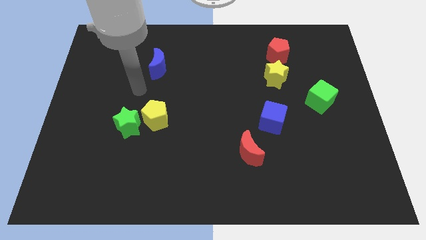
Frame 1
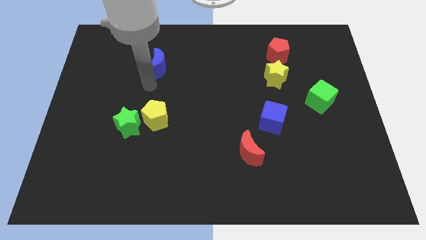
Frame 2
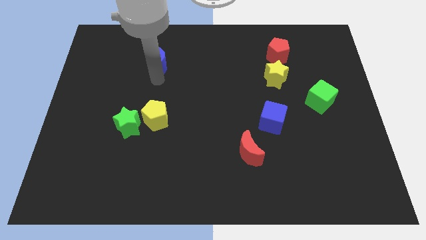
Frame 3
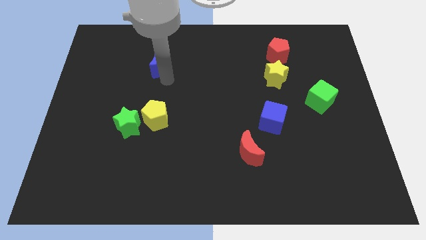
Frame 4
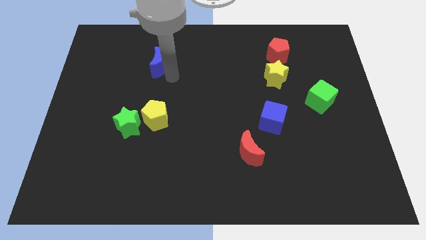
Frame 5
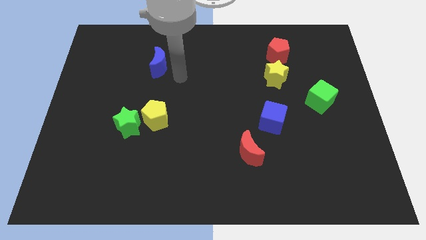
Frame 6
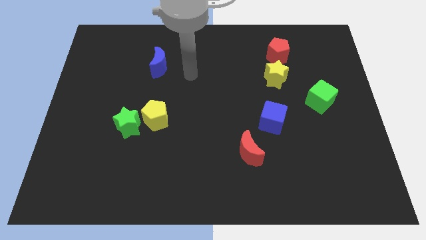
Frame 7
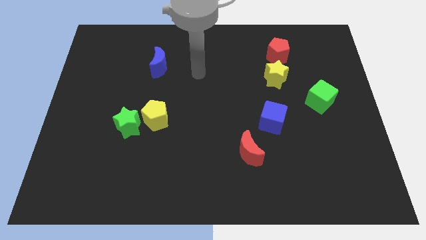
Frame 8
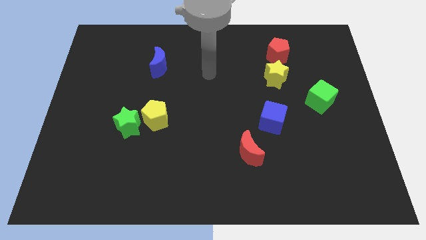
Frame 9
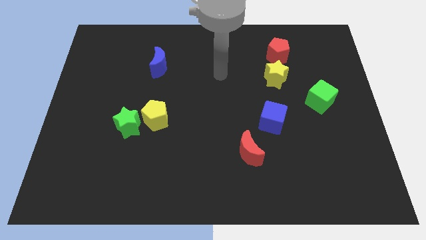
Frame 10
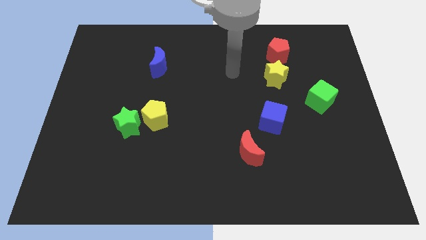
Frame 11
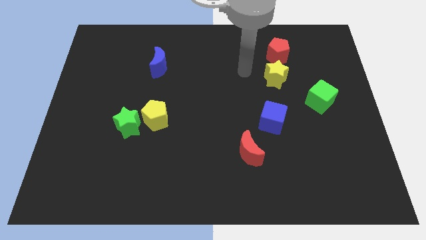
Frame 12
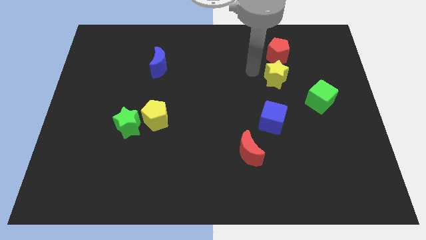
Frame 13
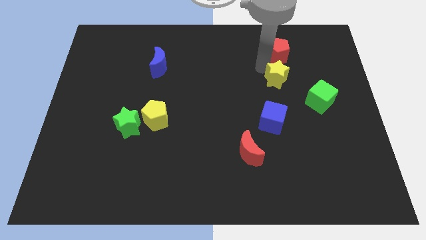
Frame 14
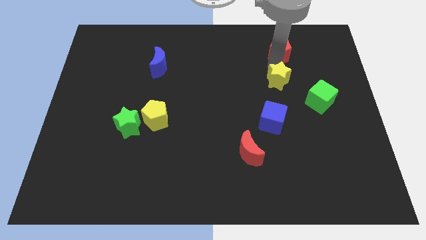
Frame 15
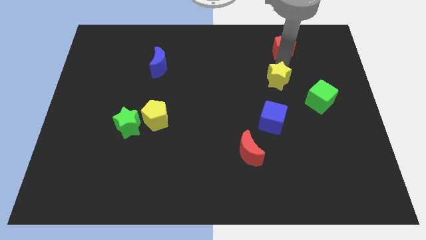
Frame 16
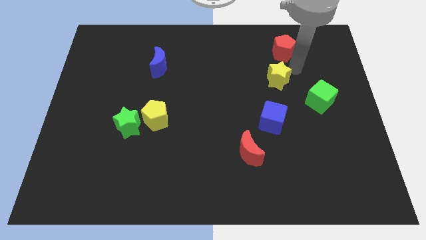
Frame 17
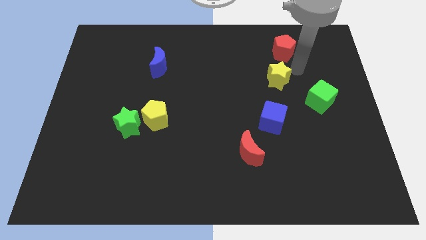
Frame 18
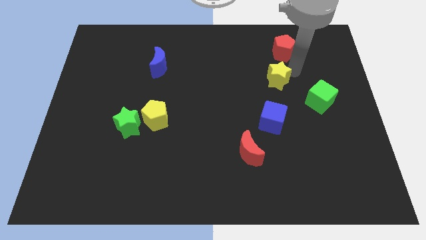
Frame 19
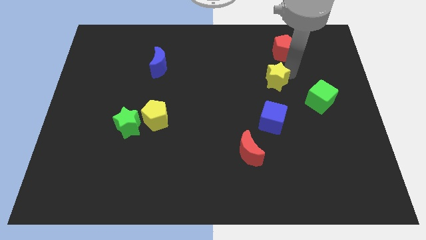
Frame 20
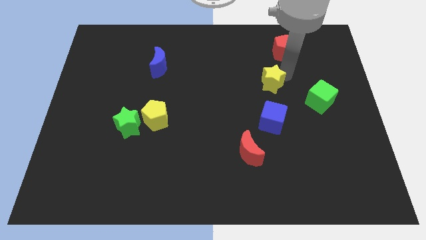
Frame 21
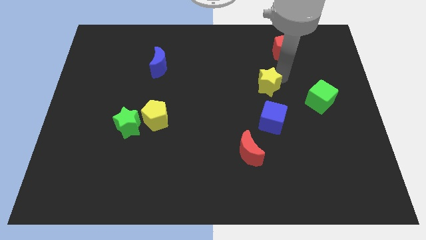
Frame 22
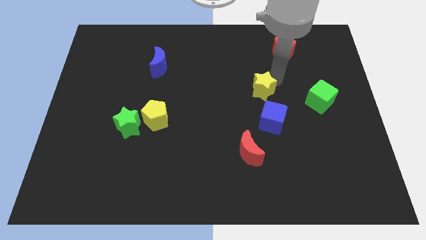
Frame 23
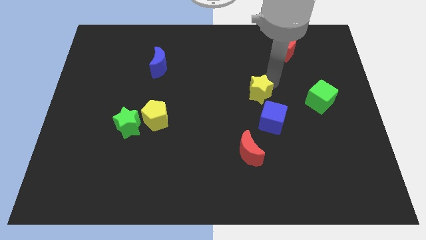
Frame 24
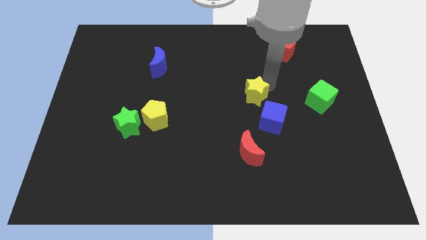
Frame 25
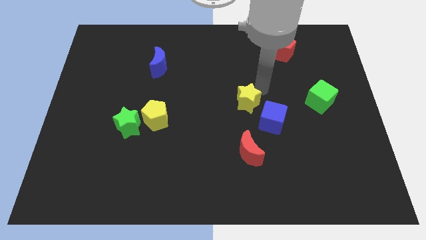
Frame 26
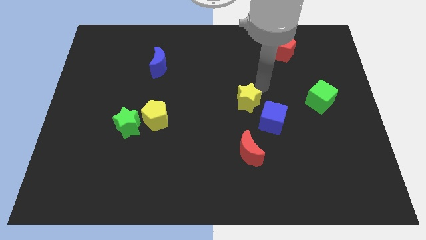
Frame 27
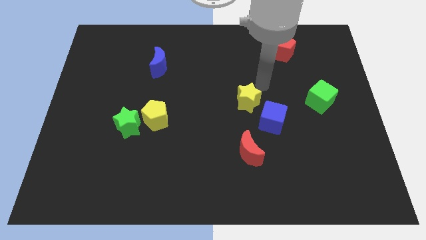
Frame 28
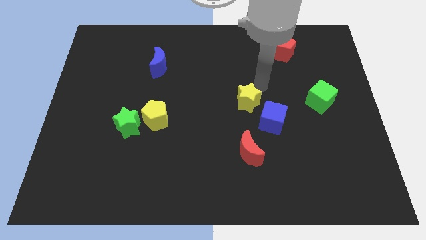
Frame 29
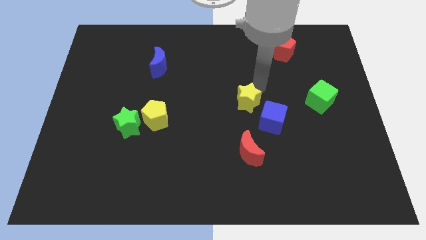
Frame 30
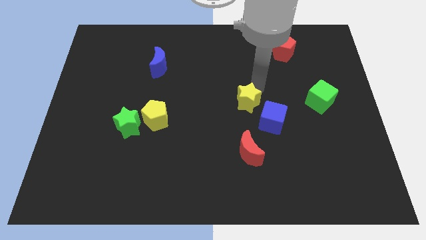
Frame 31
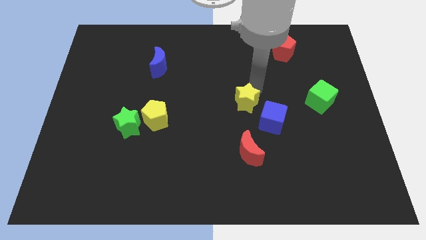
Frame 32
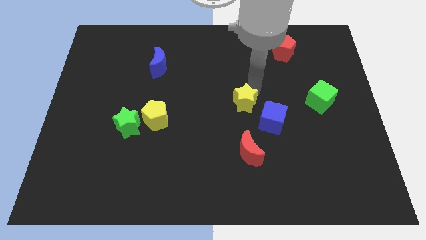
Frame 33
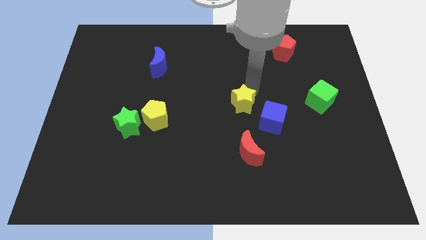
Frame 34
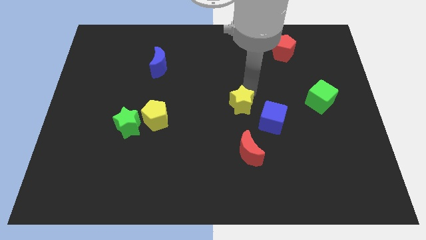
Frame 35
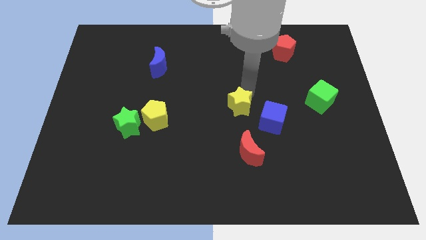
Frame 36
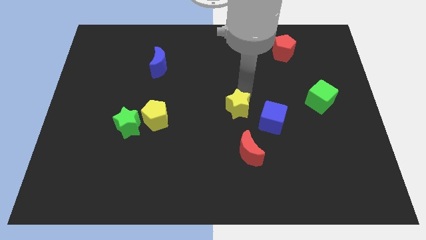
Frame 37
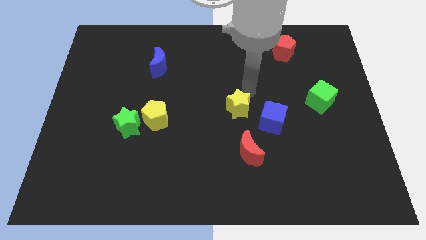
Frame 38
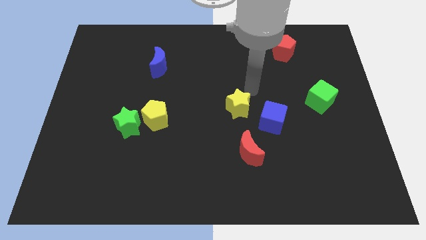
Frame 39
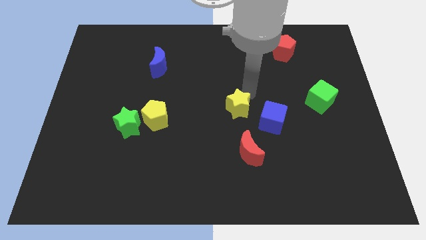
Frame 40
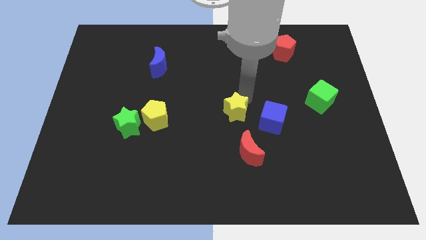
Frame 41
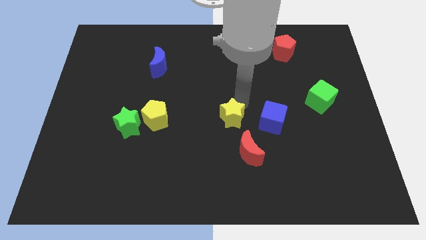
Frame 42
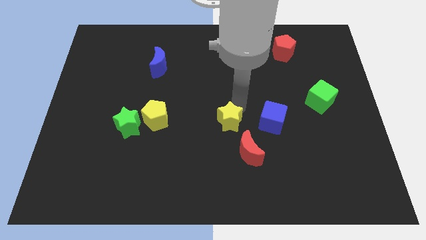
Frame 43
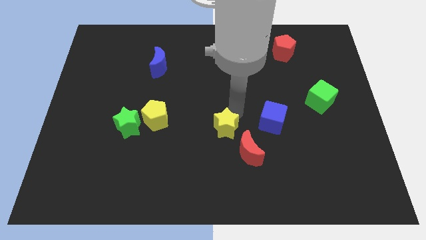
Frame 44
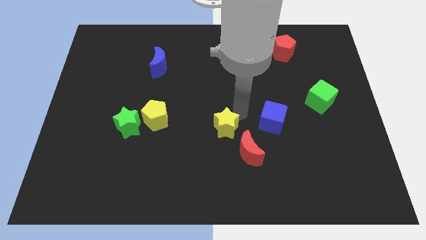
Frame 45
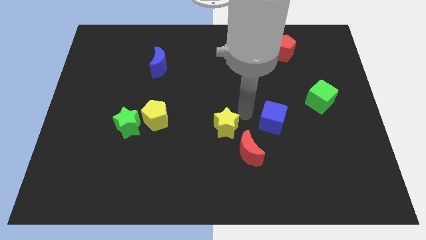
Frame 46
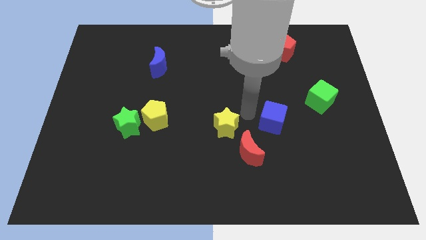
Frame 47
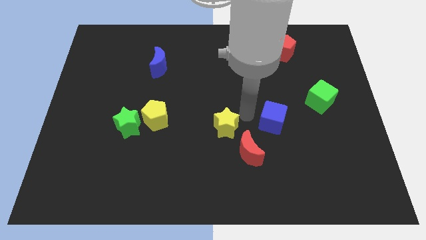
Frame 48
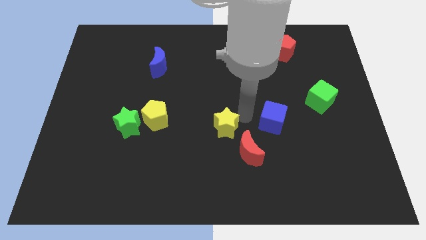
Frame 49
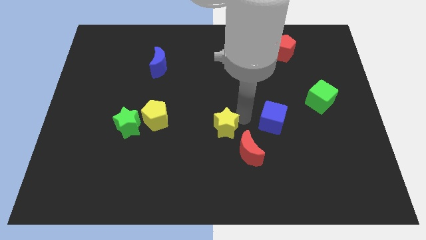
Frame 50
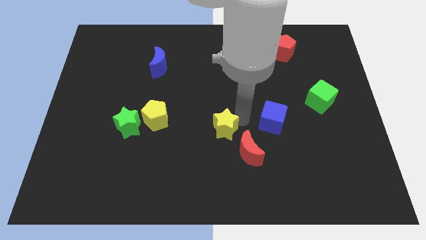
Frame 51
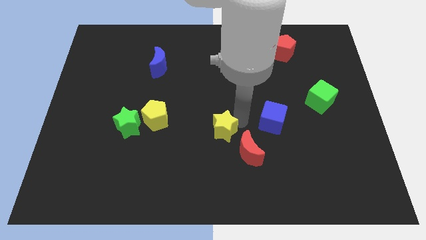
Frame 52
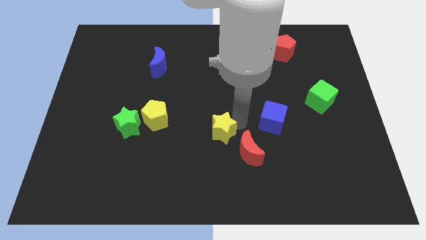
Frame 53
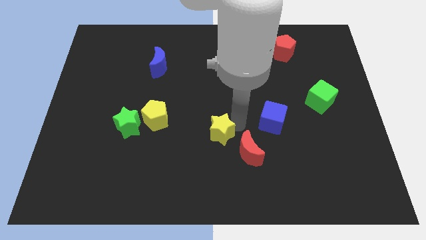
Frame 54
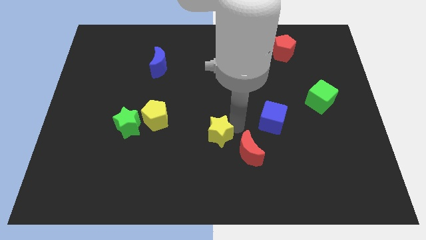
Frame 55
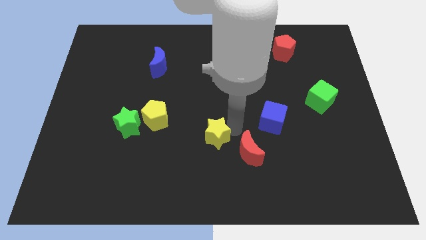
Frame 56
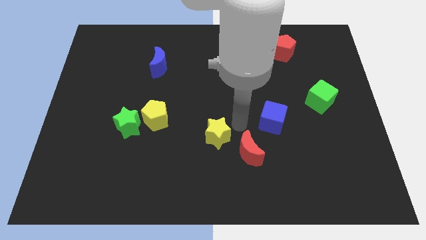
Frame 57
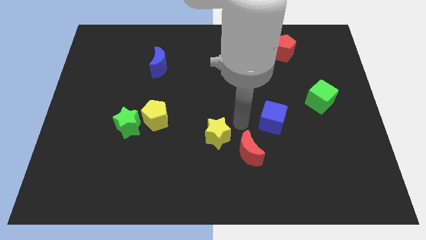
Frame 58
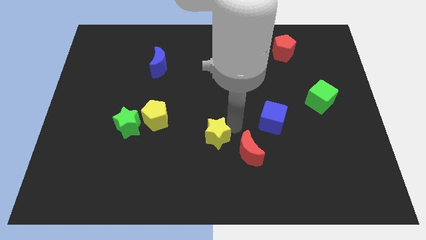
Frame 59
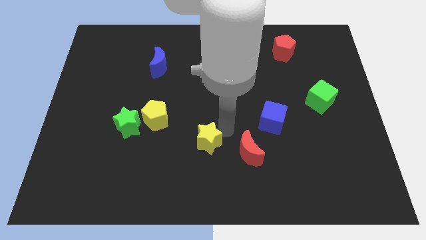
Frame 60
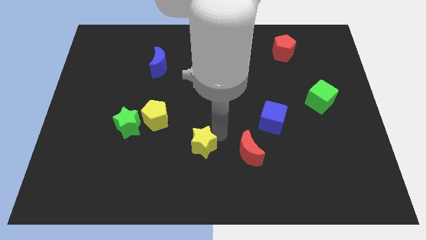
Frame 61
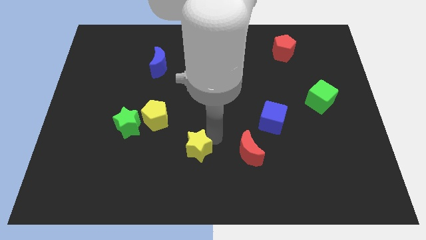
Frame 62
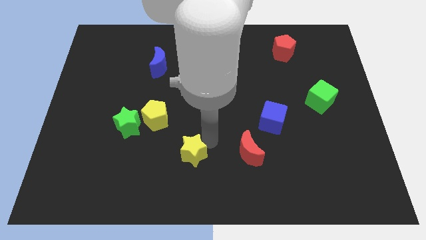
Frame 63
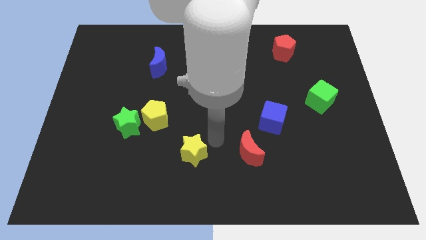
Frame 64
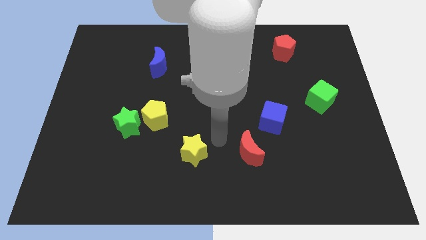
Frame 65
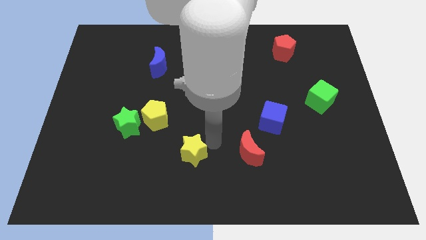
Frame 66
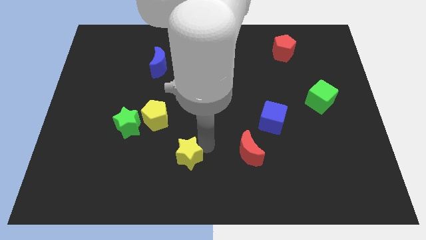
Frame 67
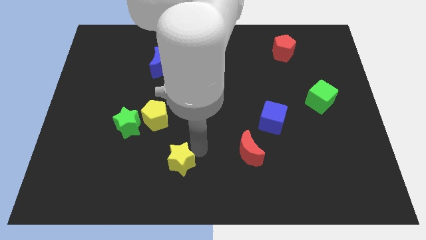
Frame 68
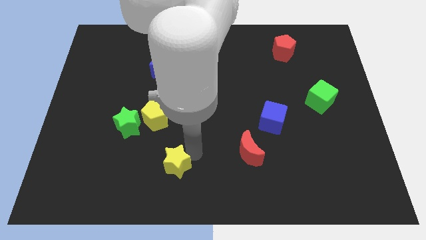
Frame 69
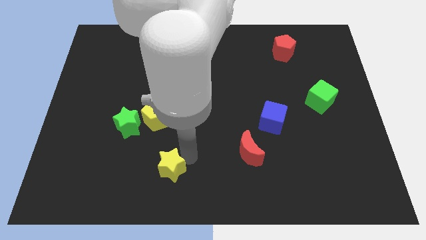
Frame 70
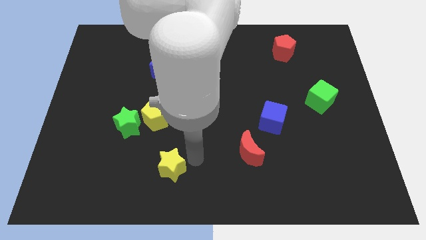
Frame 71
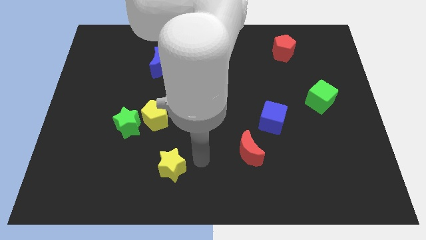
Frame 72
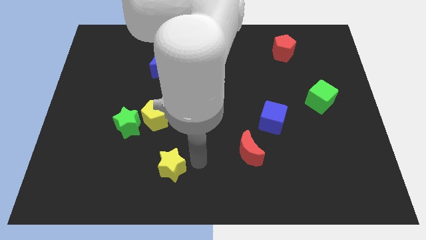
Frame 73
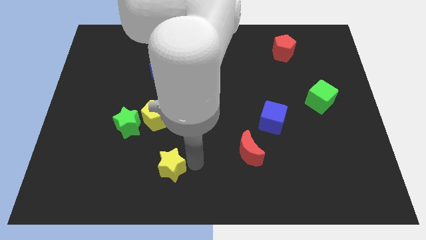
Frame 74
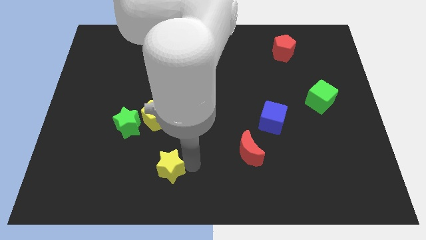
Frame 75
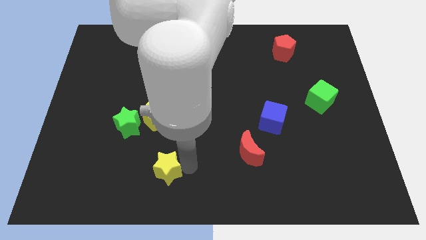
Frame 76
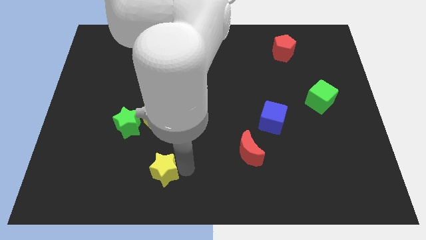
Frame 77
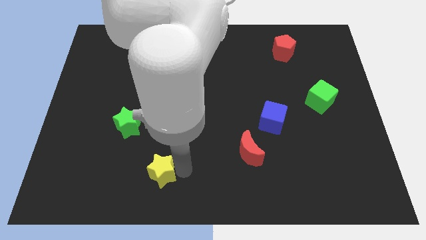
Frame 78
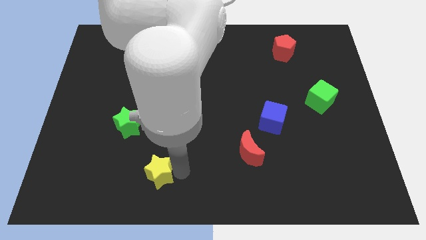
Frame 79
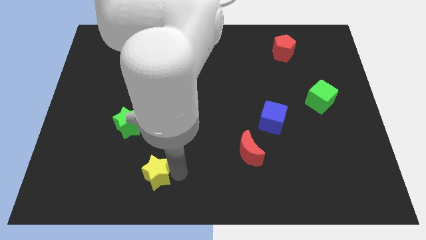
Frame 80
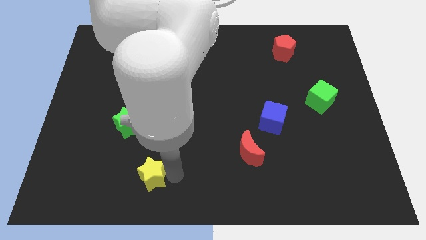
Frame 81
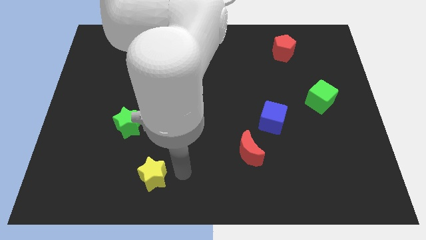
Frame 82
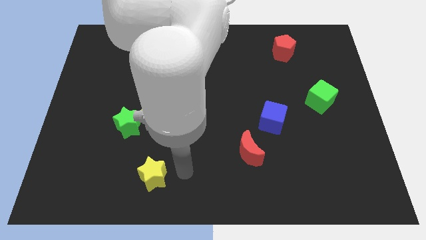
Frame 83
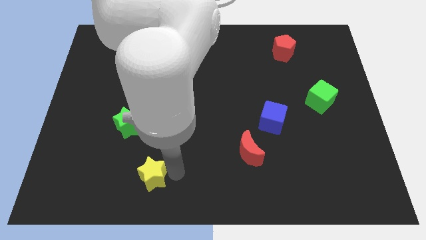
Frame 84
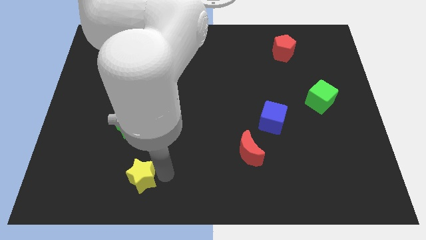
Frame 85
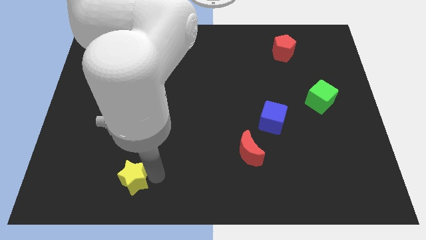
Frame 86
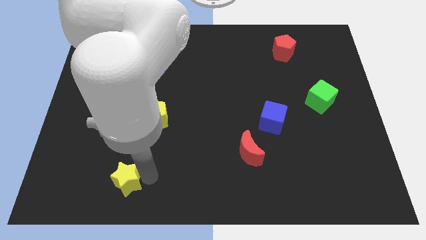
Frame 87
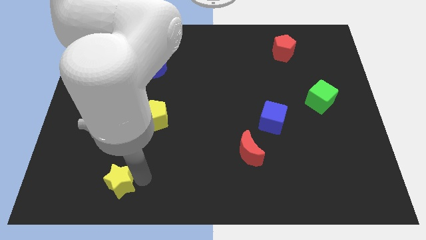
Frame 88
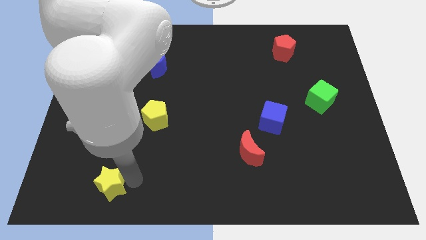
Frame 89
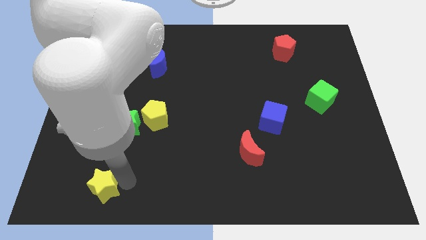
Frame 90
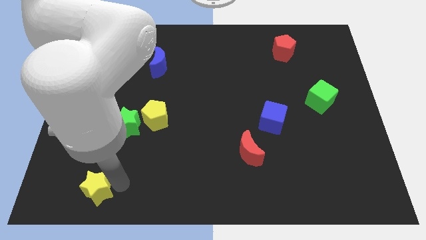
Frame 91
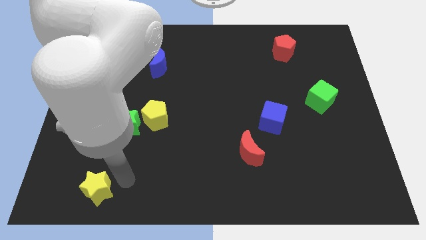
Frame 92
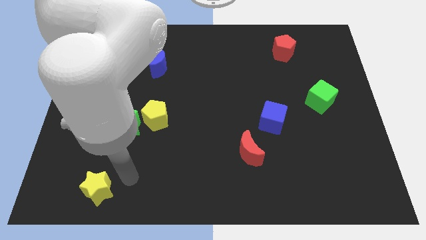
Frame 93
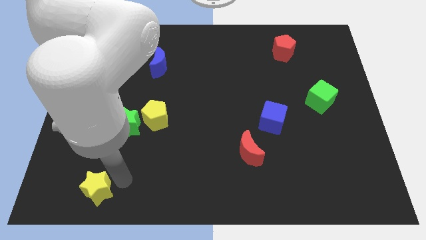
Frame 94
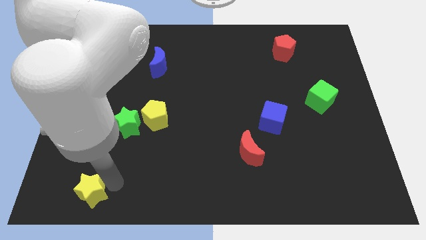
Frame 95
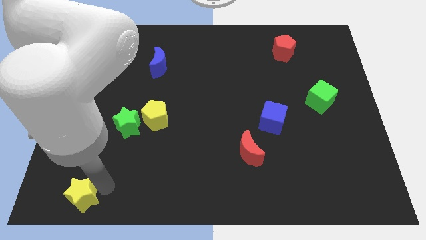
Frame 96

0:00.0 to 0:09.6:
push the yellow star to the bottom left of the board
